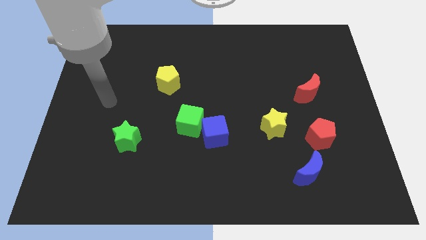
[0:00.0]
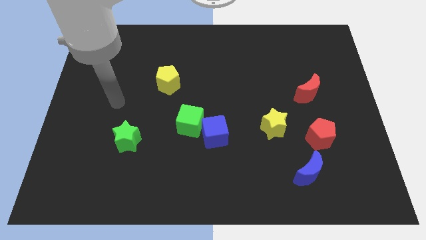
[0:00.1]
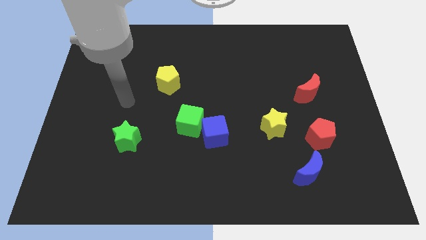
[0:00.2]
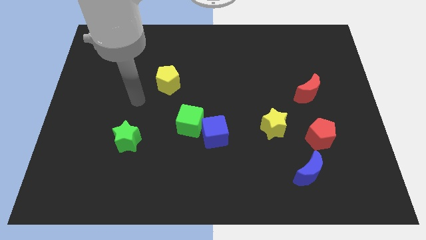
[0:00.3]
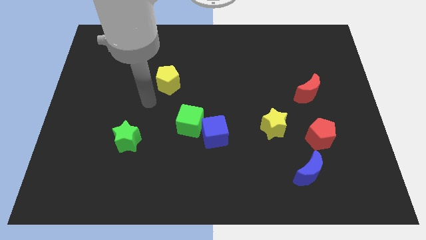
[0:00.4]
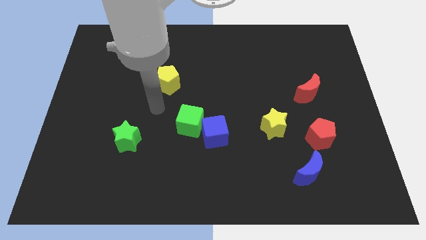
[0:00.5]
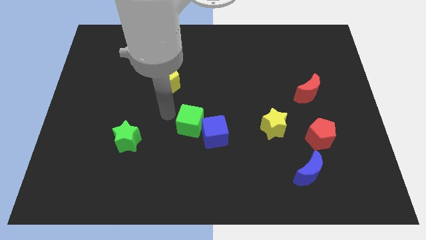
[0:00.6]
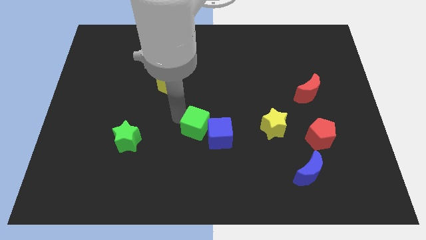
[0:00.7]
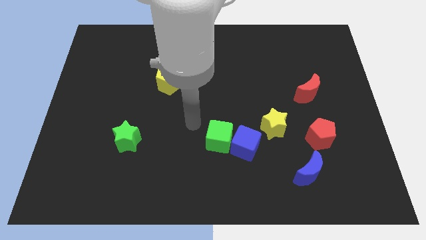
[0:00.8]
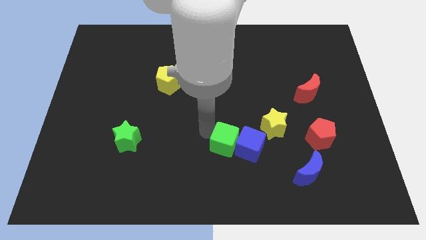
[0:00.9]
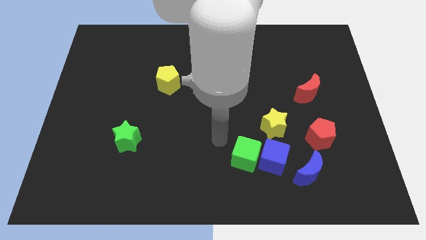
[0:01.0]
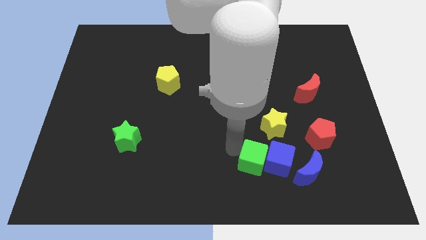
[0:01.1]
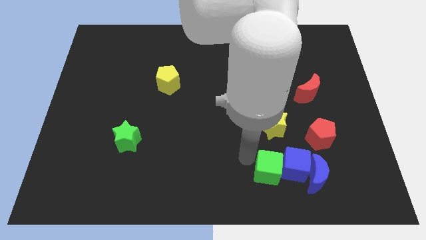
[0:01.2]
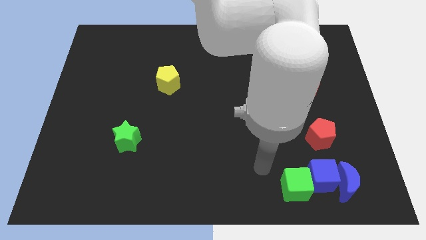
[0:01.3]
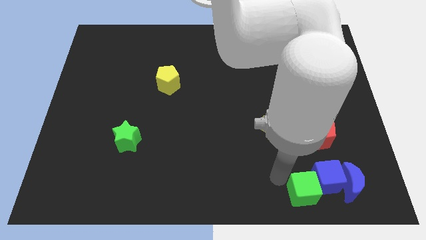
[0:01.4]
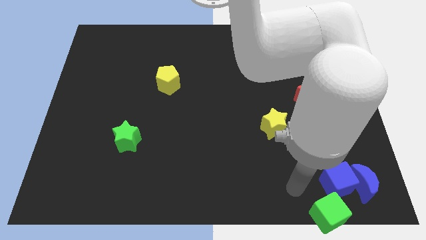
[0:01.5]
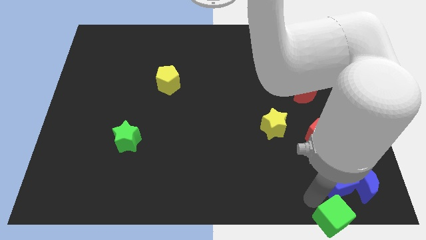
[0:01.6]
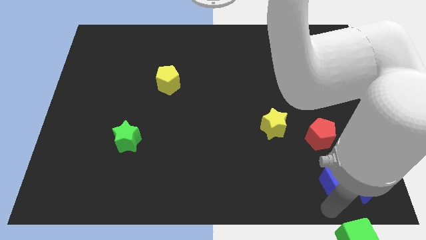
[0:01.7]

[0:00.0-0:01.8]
separate the blue cube from the green cube

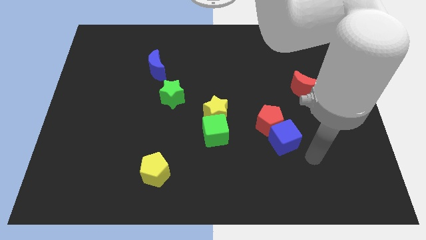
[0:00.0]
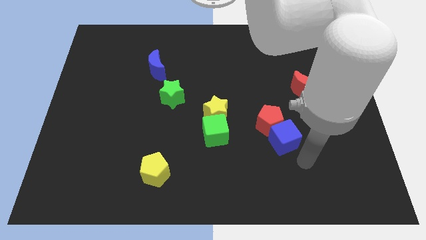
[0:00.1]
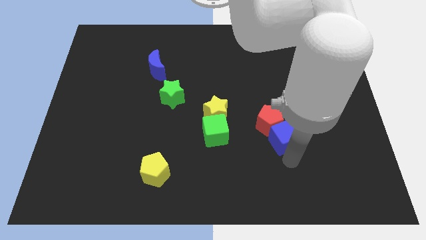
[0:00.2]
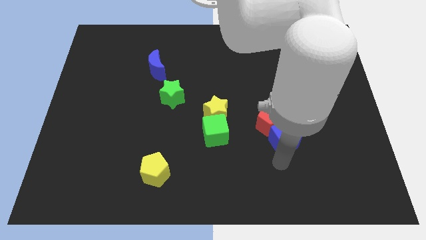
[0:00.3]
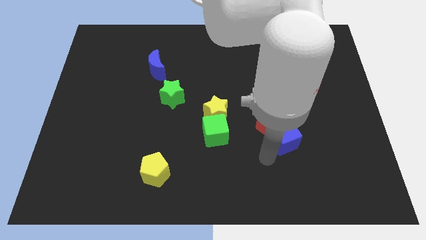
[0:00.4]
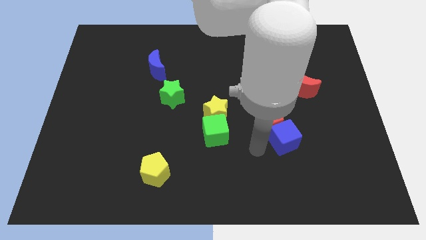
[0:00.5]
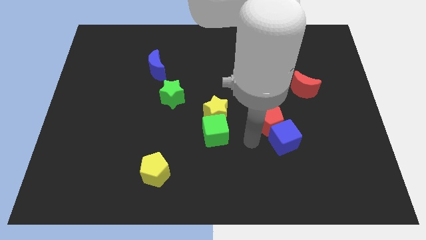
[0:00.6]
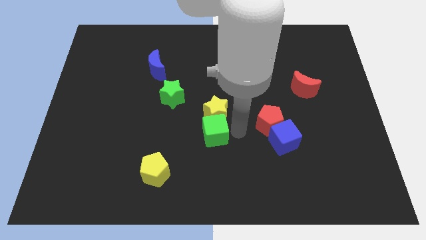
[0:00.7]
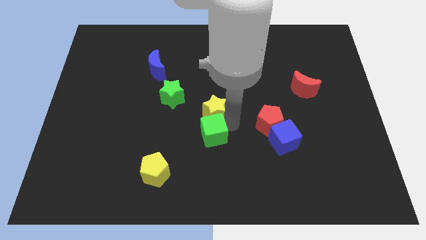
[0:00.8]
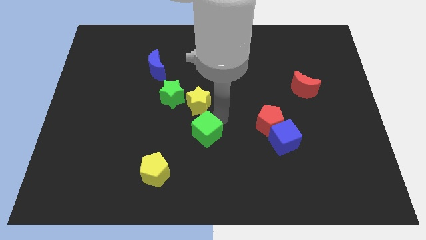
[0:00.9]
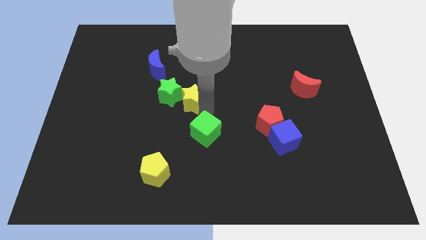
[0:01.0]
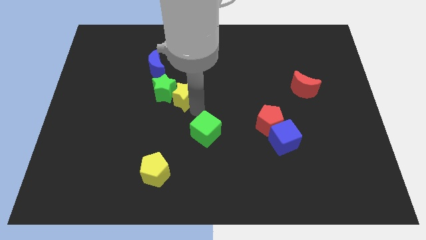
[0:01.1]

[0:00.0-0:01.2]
separate the green cube from the yellow star

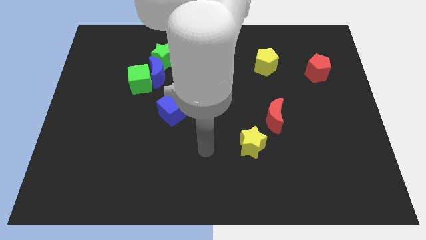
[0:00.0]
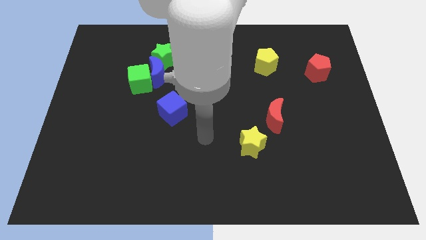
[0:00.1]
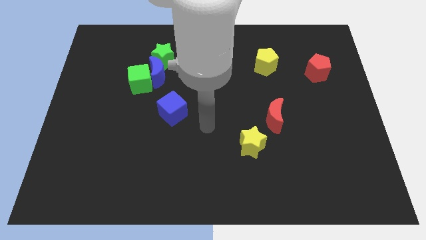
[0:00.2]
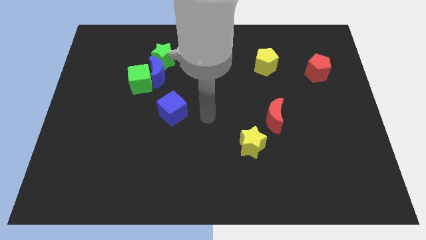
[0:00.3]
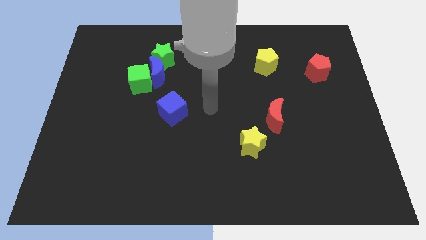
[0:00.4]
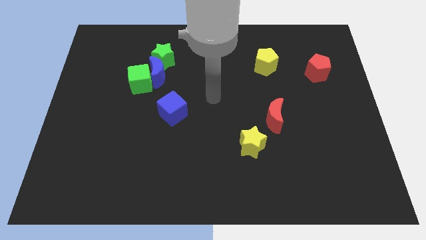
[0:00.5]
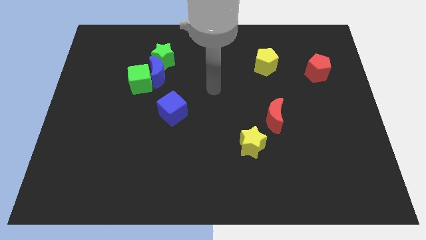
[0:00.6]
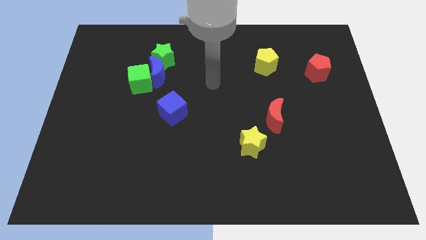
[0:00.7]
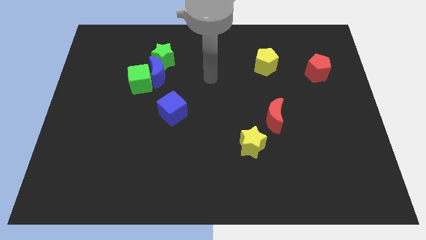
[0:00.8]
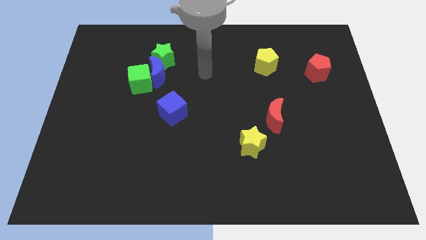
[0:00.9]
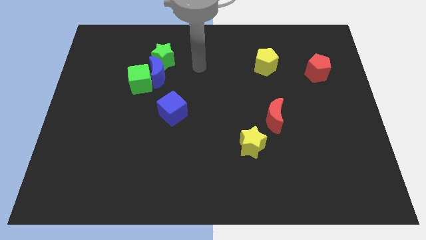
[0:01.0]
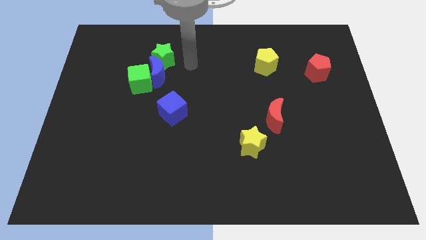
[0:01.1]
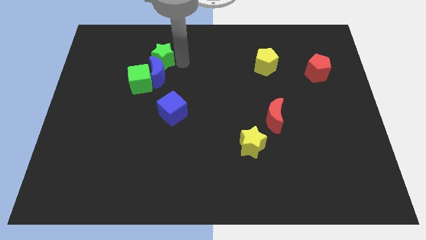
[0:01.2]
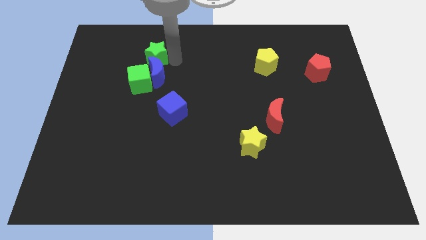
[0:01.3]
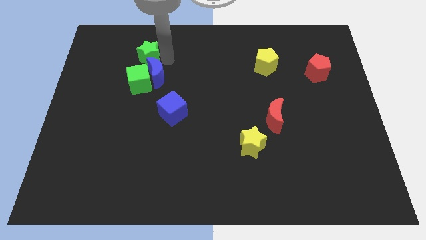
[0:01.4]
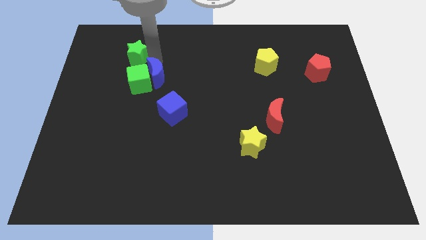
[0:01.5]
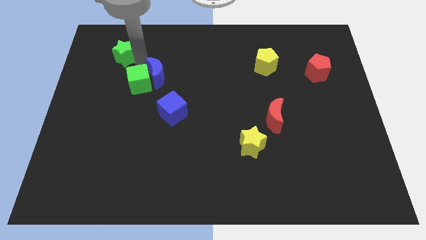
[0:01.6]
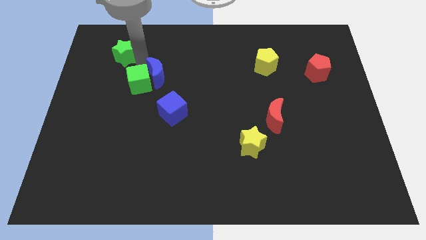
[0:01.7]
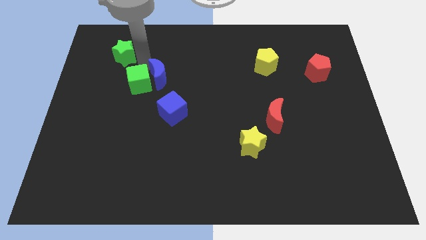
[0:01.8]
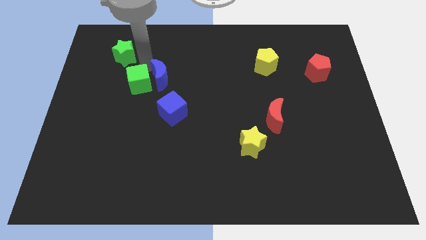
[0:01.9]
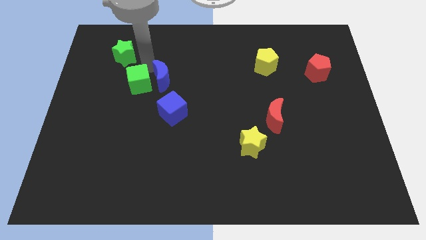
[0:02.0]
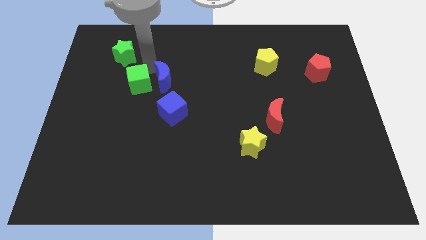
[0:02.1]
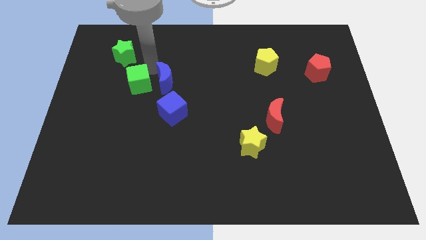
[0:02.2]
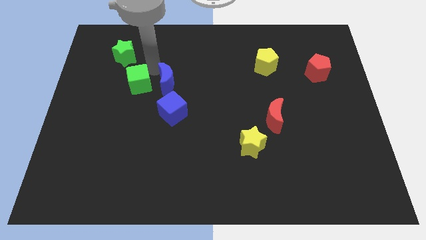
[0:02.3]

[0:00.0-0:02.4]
move the blue moon away from the green cube and green star

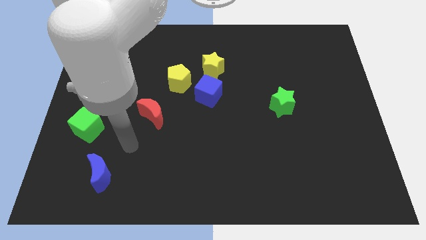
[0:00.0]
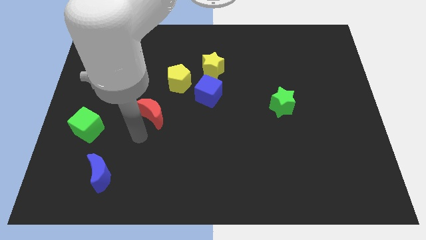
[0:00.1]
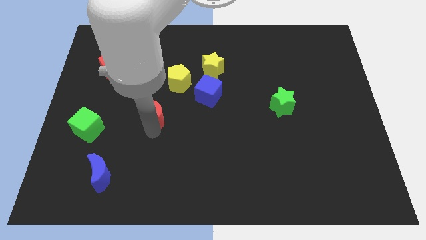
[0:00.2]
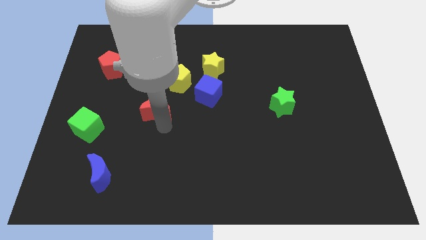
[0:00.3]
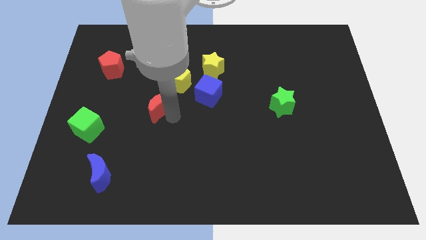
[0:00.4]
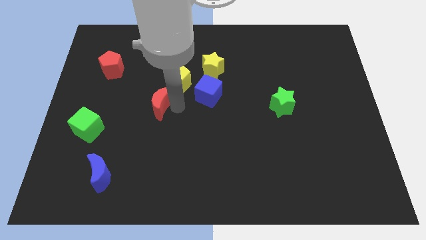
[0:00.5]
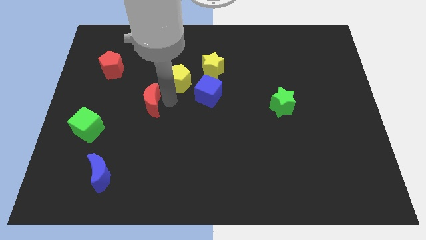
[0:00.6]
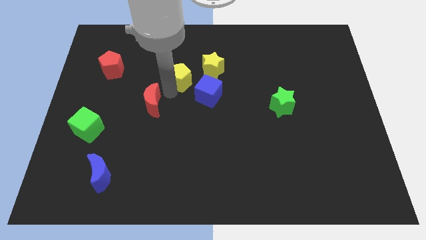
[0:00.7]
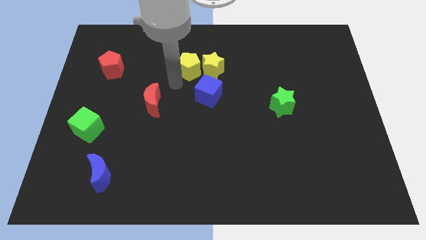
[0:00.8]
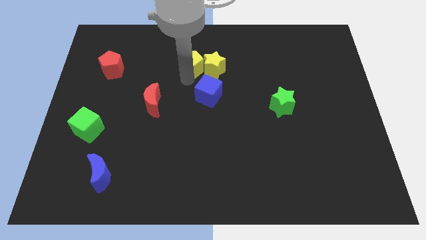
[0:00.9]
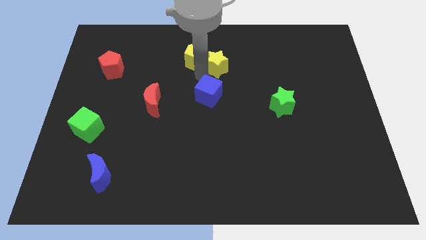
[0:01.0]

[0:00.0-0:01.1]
separate the blue cube from the yellow pentagon and yellow star

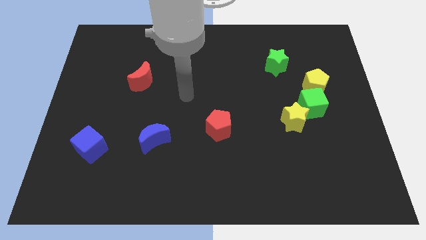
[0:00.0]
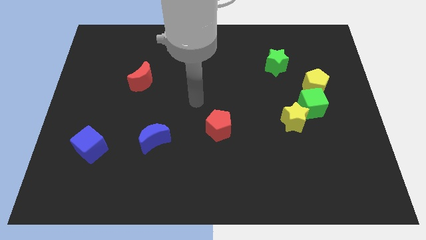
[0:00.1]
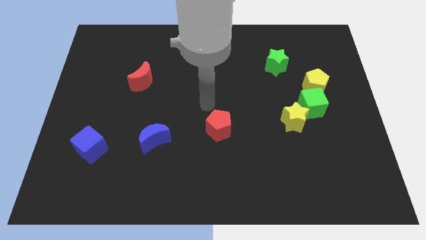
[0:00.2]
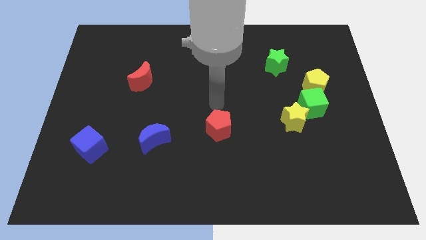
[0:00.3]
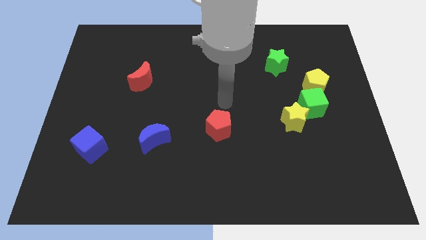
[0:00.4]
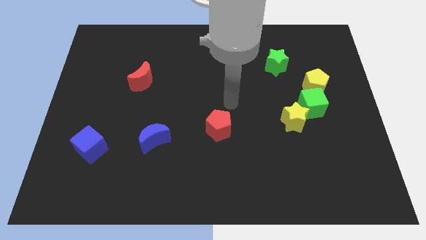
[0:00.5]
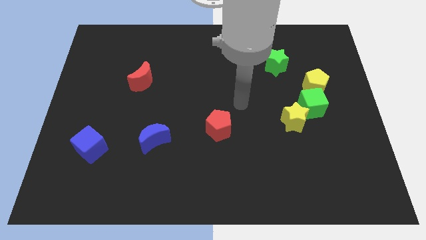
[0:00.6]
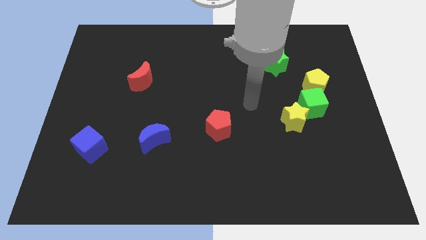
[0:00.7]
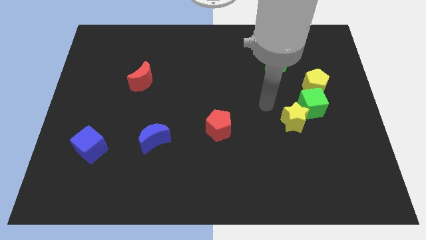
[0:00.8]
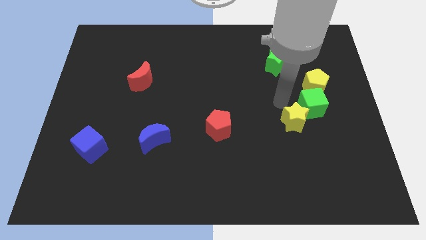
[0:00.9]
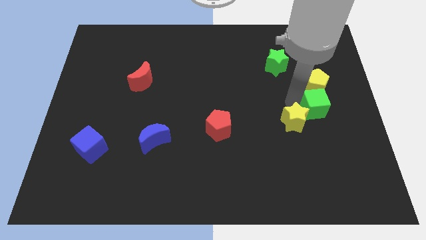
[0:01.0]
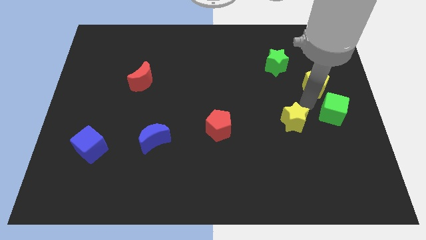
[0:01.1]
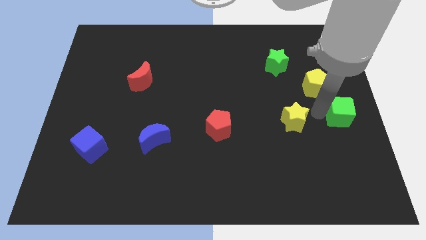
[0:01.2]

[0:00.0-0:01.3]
separate the yellow star from the green cube

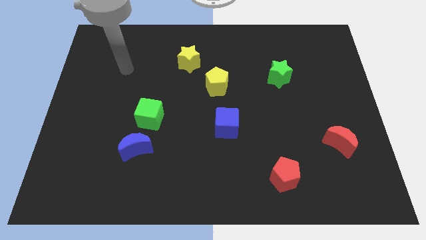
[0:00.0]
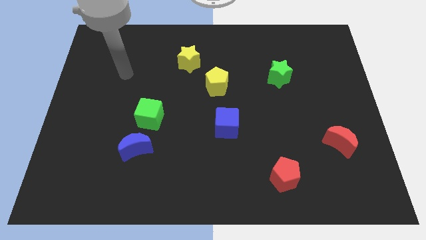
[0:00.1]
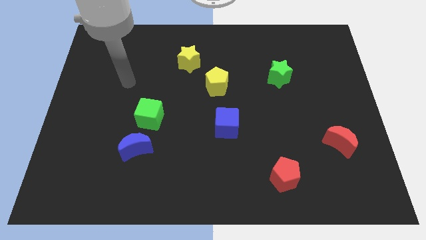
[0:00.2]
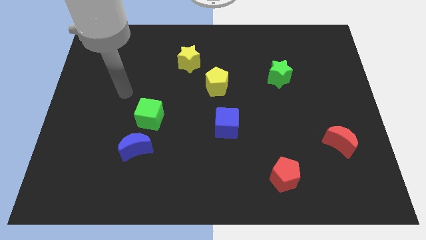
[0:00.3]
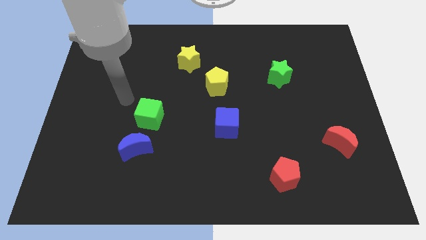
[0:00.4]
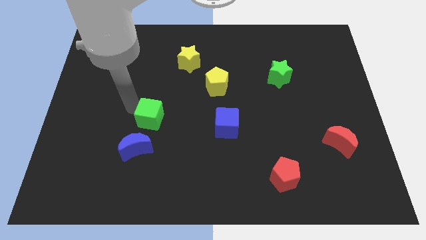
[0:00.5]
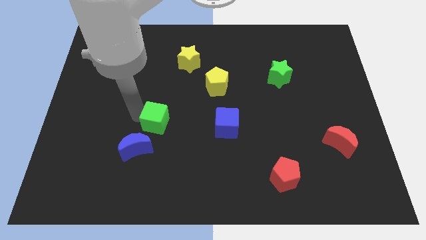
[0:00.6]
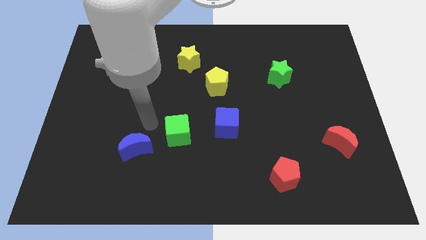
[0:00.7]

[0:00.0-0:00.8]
pull the blue moon apart from the green cube

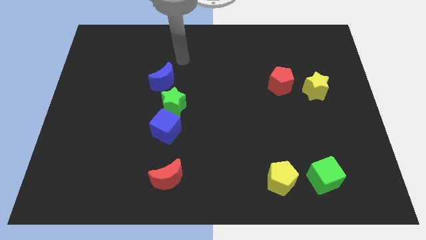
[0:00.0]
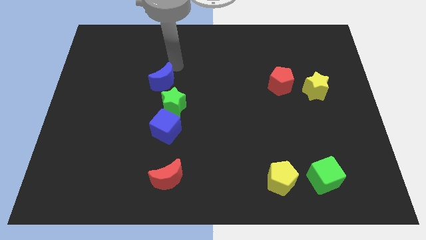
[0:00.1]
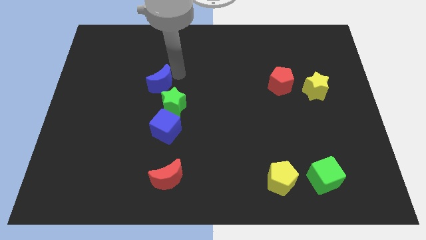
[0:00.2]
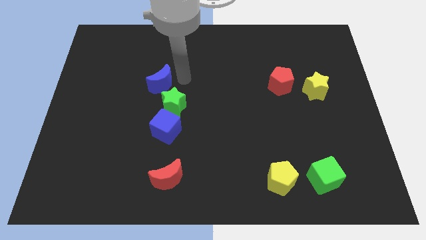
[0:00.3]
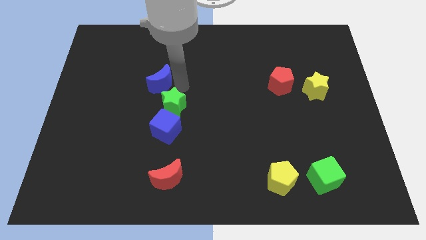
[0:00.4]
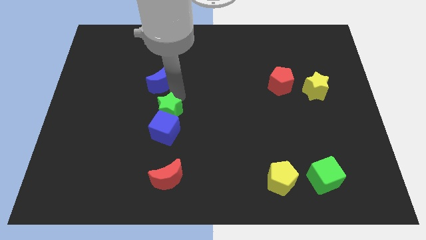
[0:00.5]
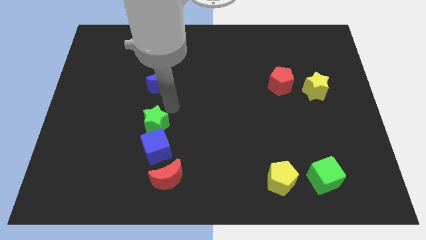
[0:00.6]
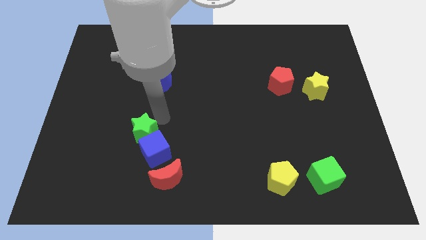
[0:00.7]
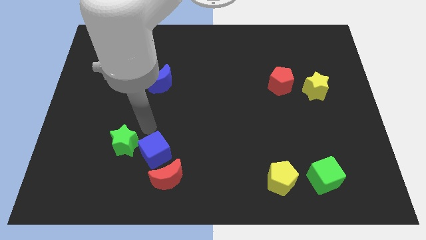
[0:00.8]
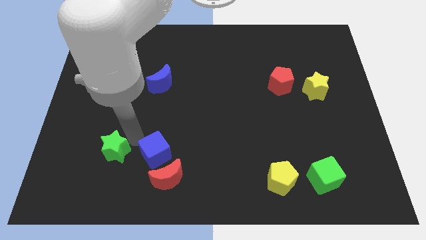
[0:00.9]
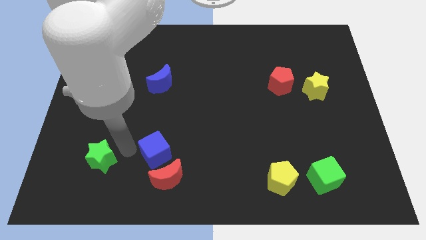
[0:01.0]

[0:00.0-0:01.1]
pull the blue cube apart from the green star
